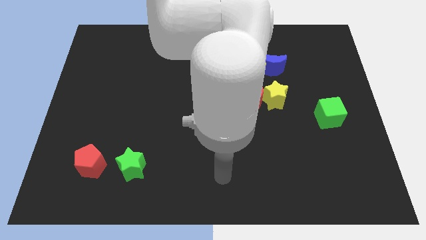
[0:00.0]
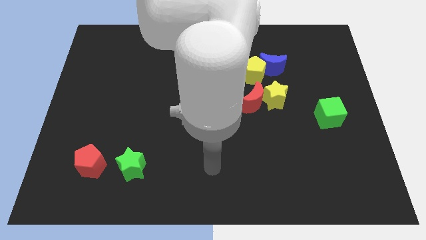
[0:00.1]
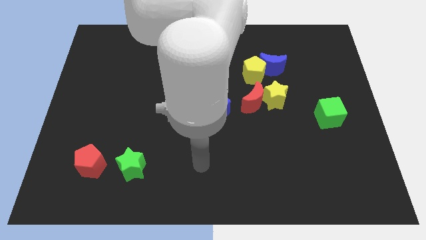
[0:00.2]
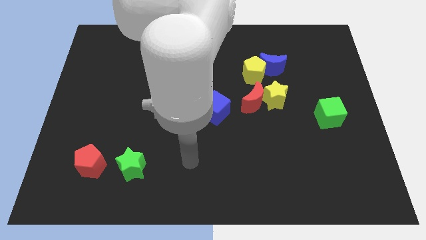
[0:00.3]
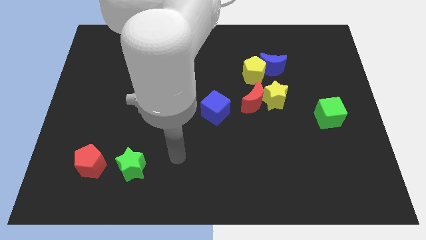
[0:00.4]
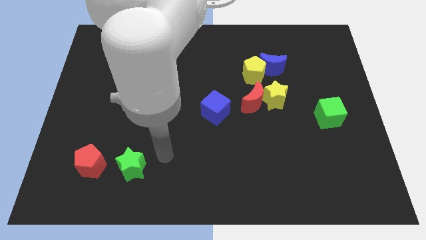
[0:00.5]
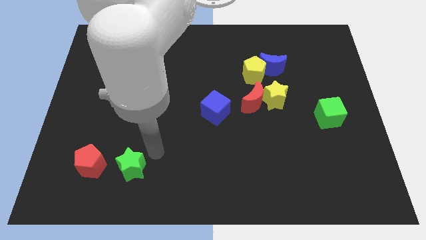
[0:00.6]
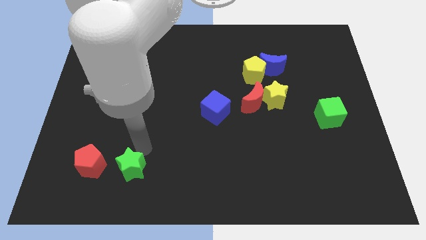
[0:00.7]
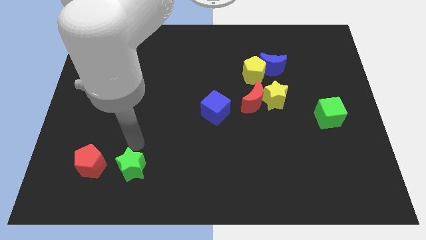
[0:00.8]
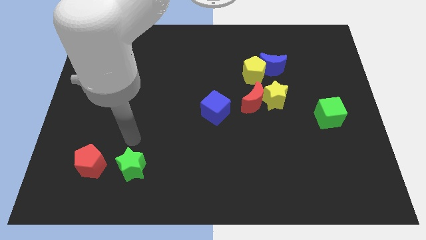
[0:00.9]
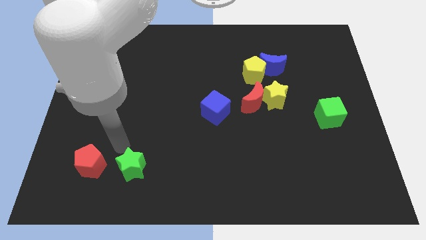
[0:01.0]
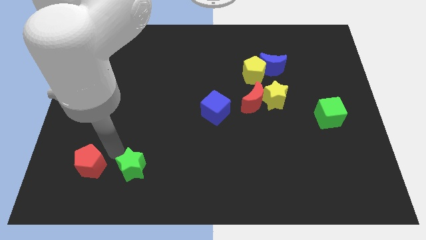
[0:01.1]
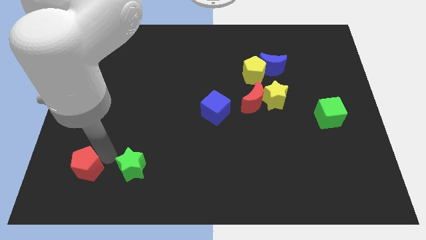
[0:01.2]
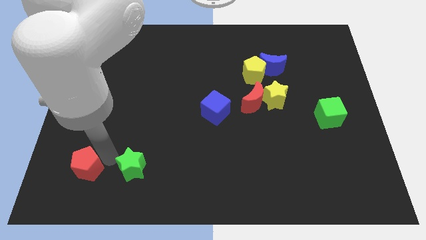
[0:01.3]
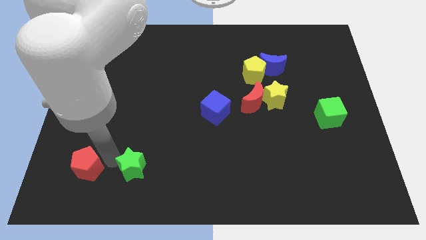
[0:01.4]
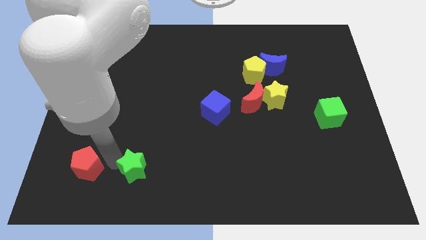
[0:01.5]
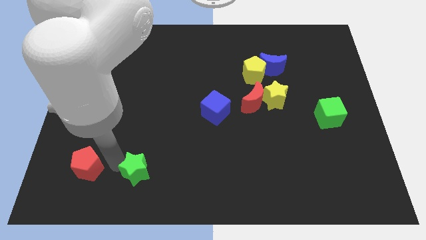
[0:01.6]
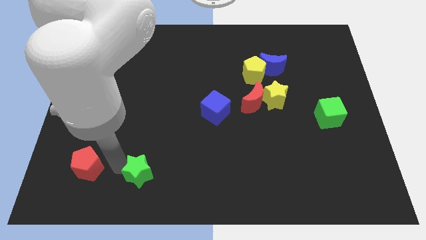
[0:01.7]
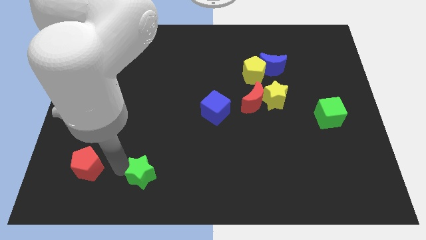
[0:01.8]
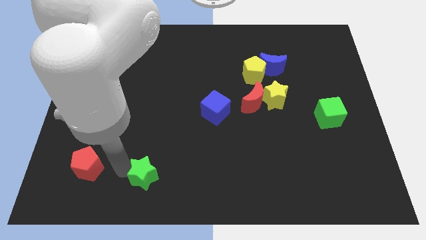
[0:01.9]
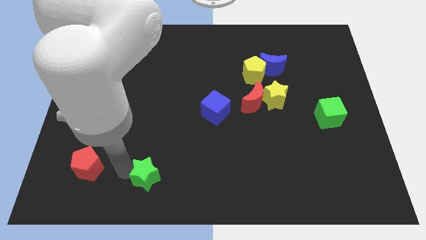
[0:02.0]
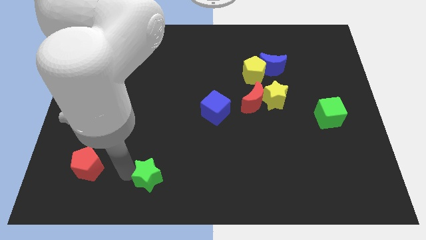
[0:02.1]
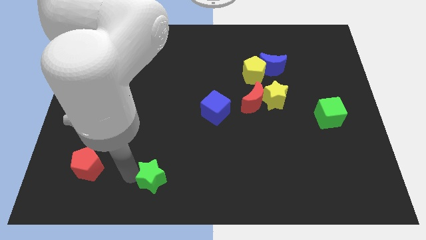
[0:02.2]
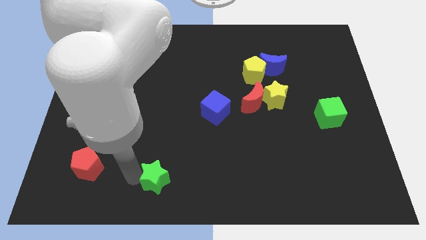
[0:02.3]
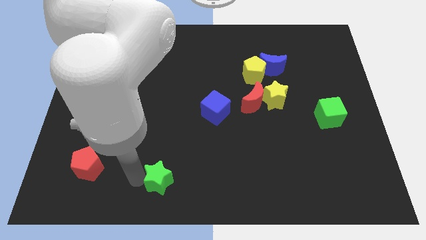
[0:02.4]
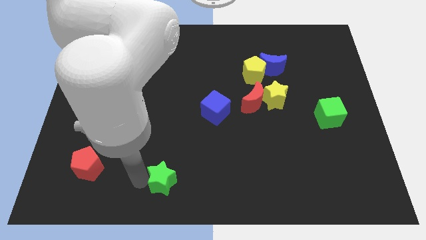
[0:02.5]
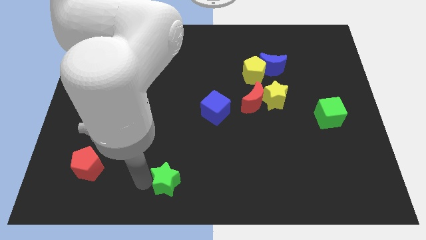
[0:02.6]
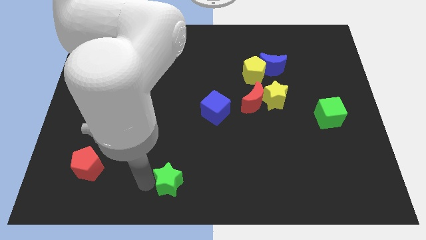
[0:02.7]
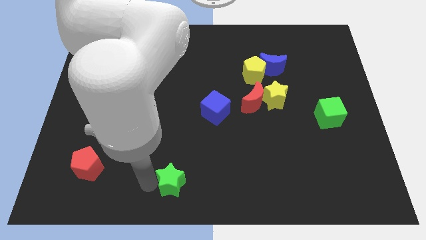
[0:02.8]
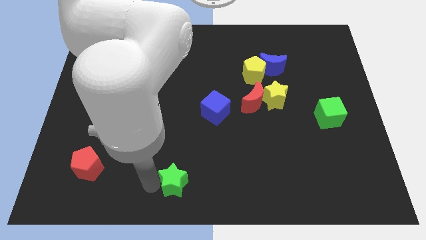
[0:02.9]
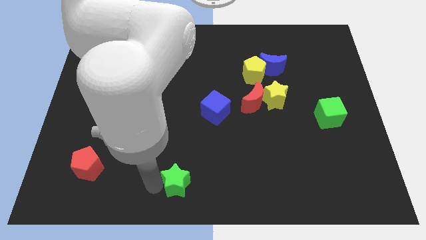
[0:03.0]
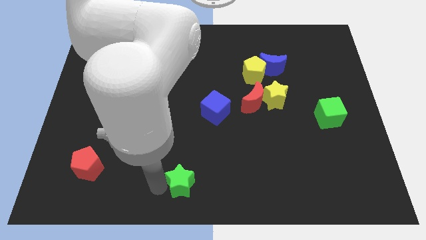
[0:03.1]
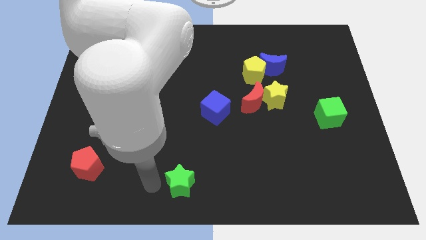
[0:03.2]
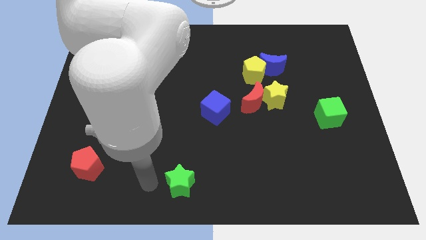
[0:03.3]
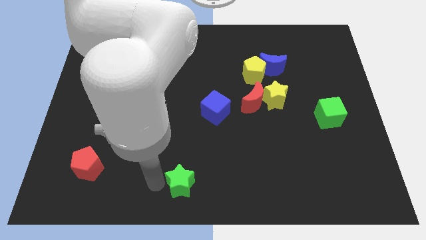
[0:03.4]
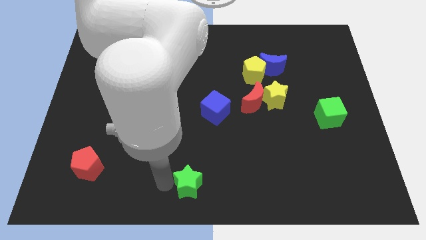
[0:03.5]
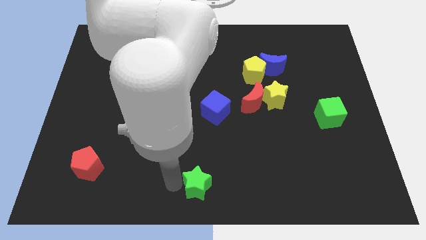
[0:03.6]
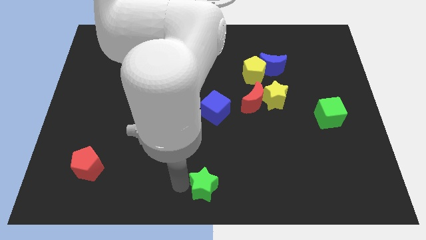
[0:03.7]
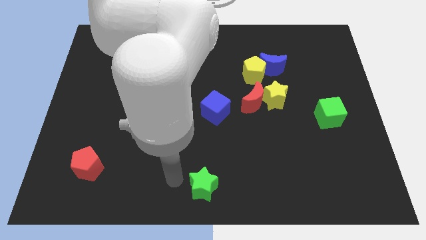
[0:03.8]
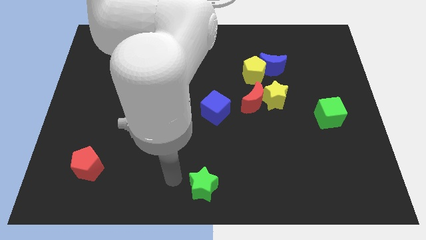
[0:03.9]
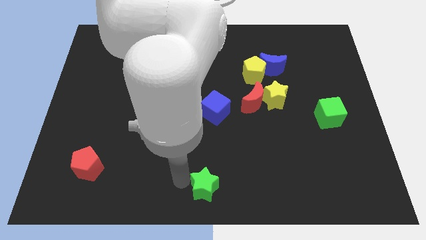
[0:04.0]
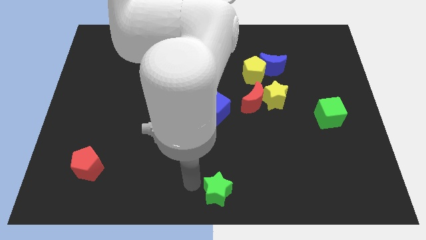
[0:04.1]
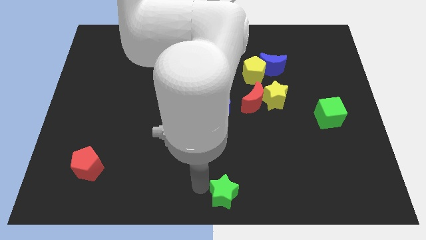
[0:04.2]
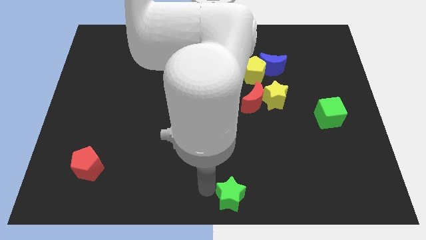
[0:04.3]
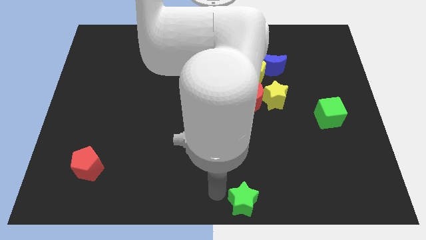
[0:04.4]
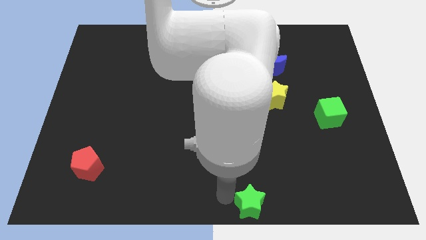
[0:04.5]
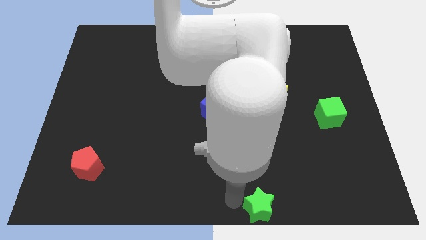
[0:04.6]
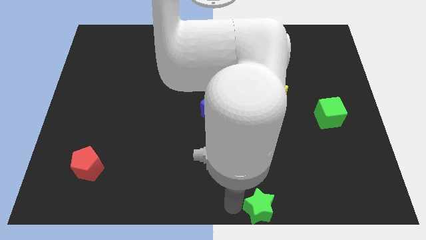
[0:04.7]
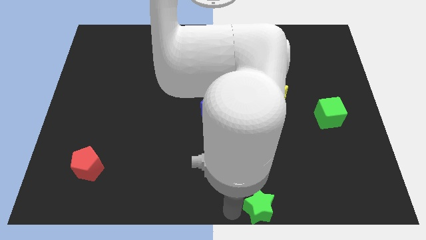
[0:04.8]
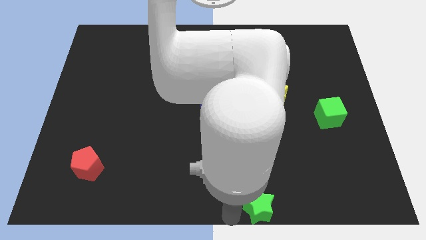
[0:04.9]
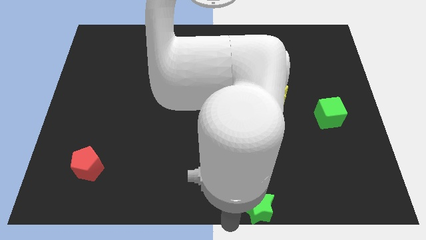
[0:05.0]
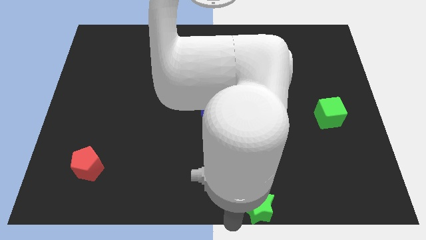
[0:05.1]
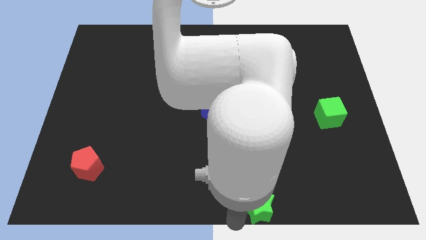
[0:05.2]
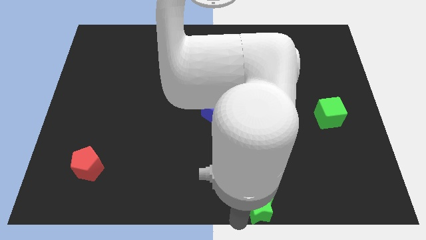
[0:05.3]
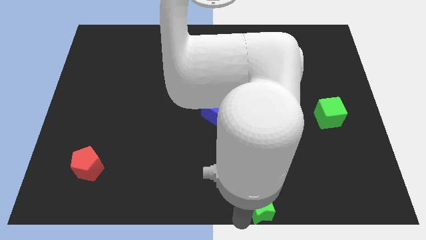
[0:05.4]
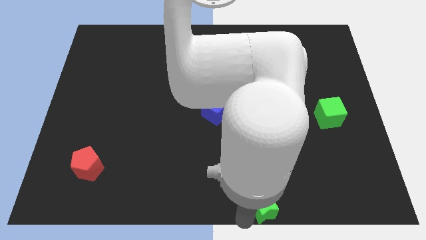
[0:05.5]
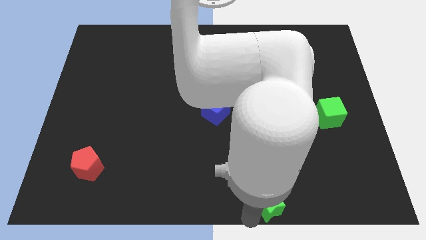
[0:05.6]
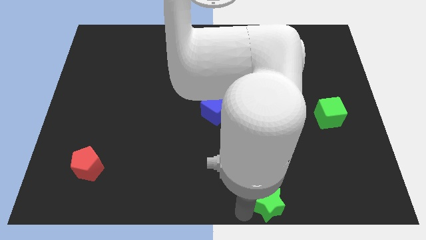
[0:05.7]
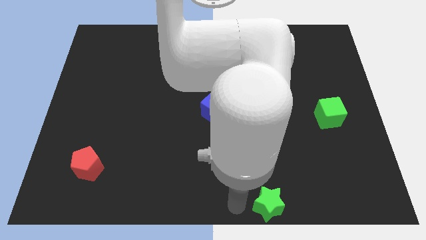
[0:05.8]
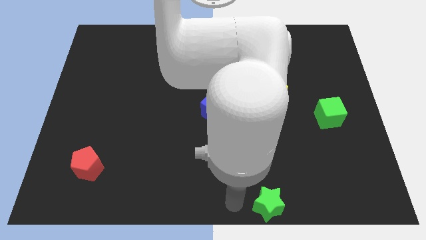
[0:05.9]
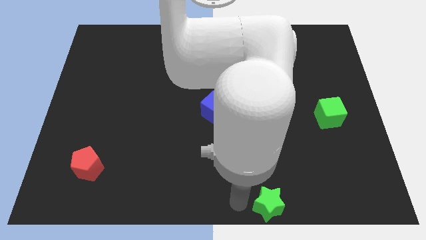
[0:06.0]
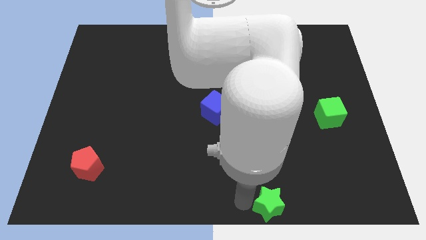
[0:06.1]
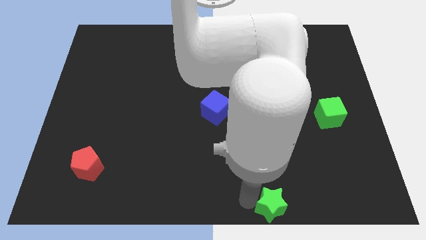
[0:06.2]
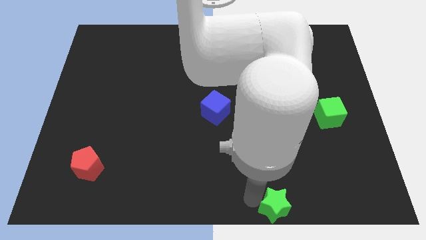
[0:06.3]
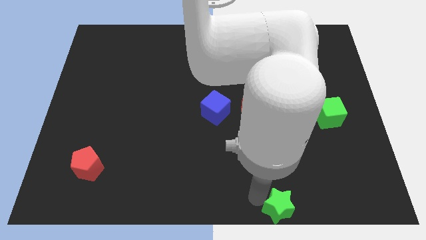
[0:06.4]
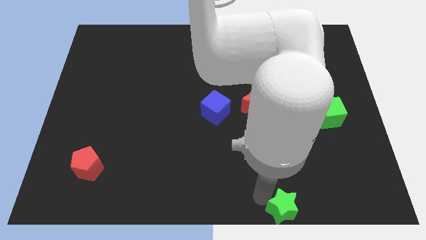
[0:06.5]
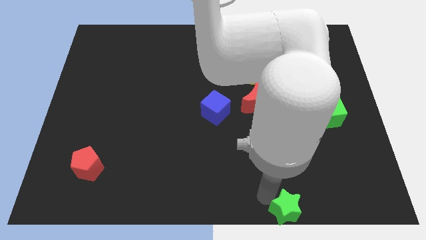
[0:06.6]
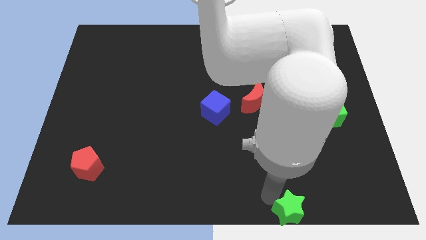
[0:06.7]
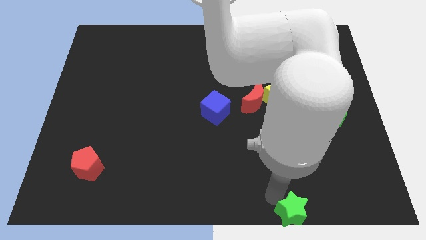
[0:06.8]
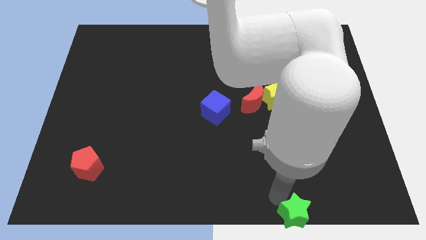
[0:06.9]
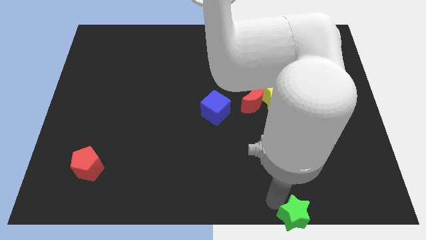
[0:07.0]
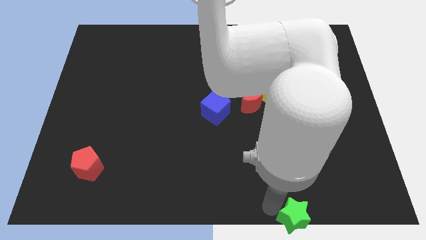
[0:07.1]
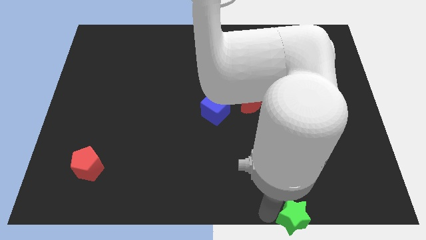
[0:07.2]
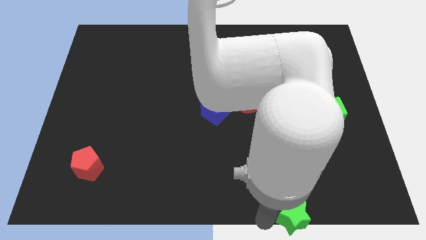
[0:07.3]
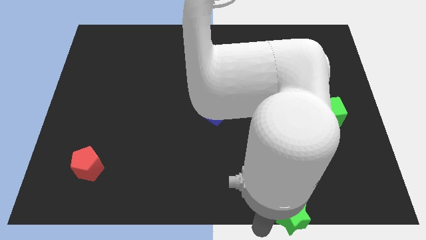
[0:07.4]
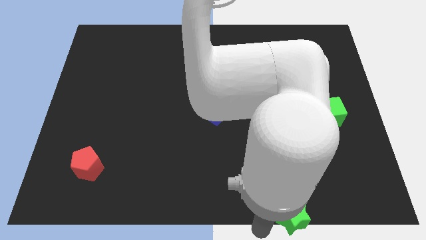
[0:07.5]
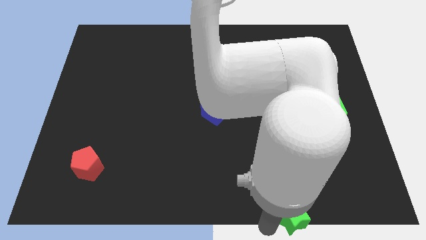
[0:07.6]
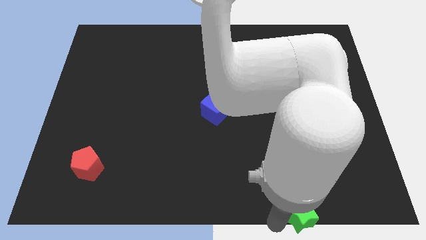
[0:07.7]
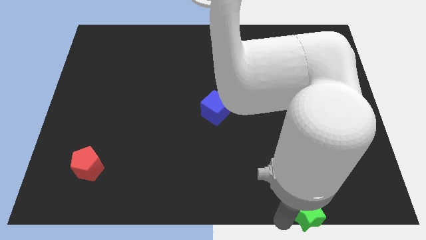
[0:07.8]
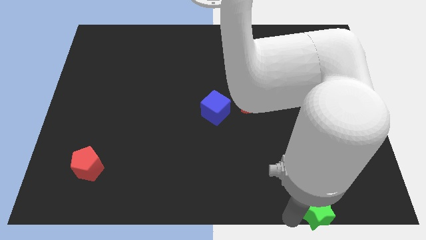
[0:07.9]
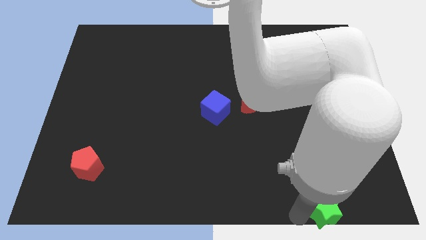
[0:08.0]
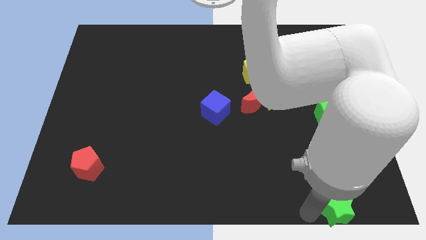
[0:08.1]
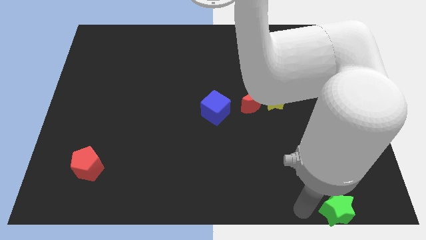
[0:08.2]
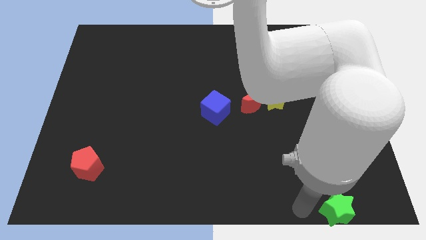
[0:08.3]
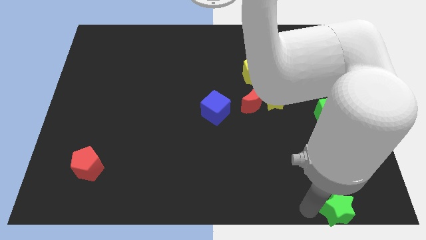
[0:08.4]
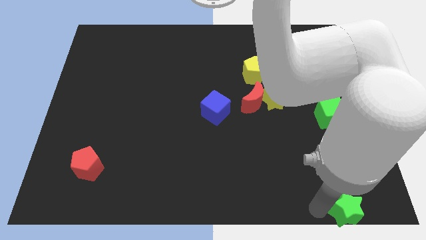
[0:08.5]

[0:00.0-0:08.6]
push the green star to the bottom right of the board
